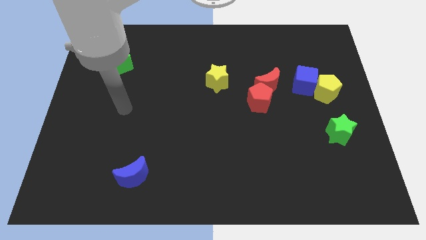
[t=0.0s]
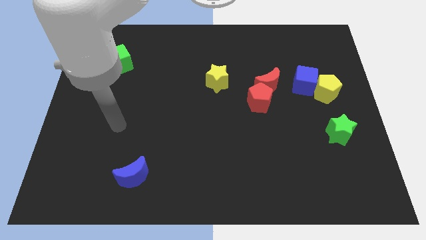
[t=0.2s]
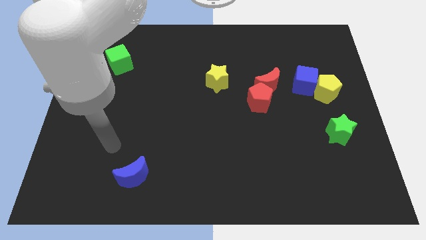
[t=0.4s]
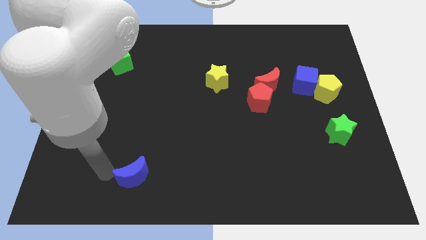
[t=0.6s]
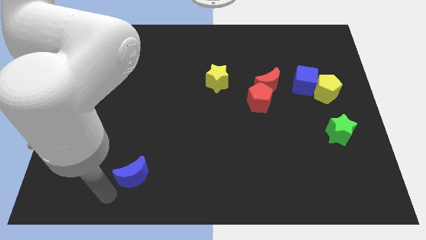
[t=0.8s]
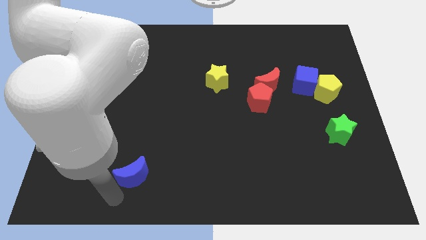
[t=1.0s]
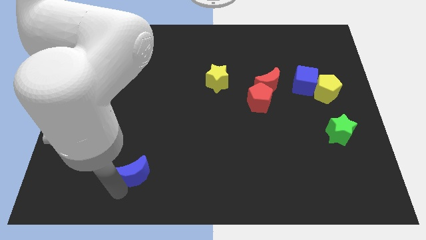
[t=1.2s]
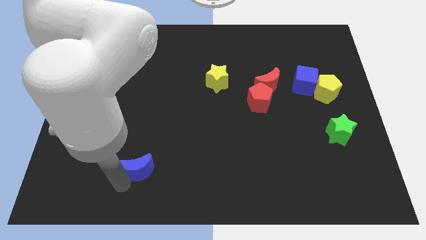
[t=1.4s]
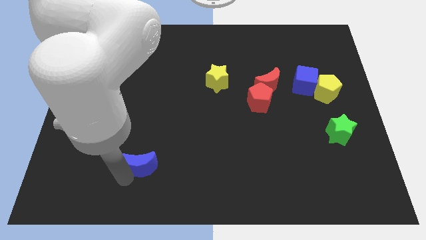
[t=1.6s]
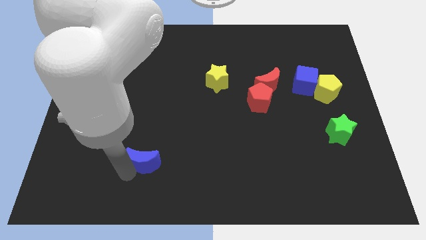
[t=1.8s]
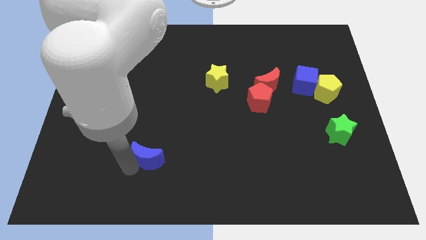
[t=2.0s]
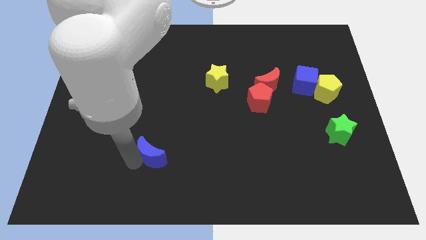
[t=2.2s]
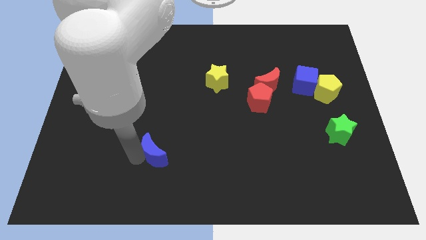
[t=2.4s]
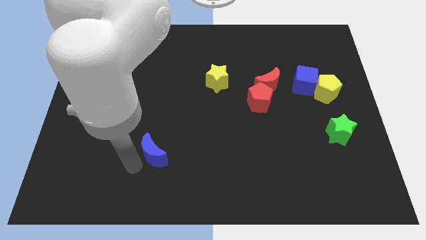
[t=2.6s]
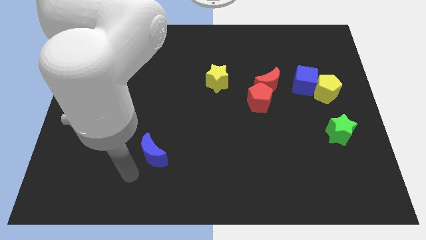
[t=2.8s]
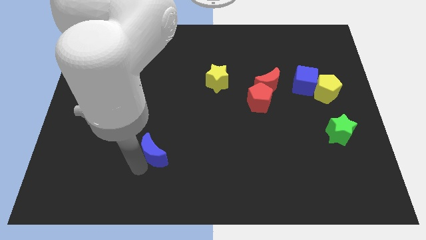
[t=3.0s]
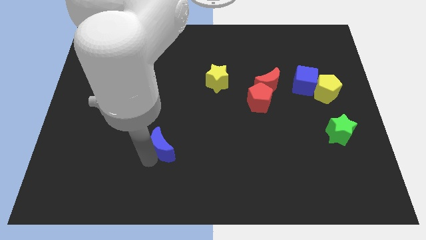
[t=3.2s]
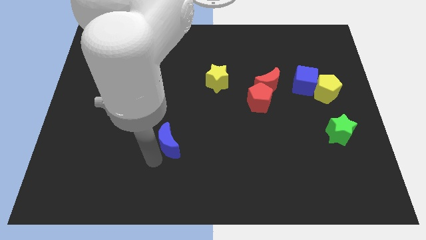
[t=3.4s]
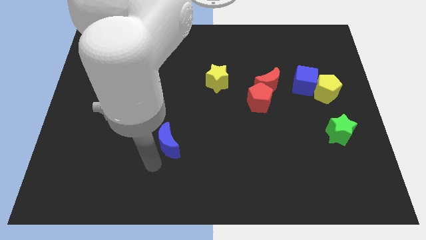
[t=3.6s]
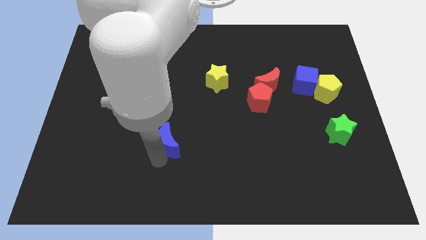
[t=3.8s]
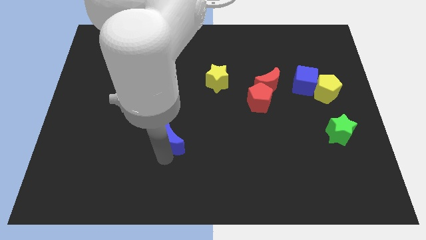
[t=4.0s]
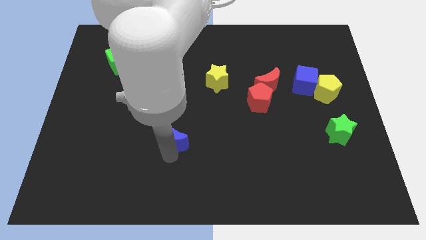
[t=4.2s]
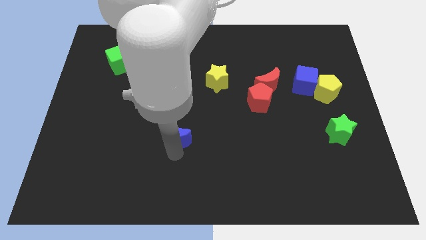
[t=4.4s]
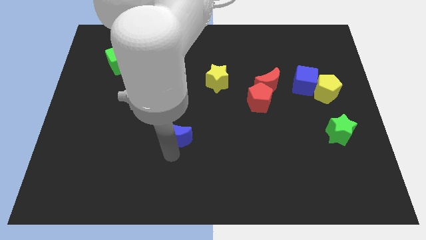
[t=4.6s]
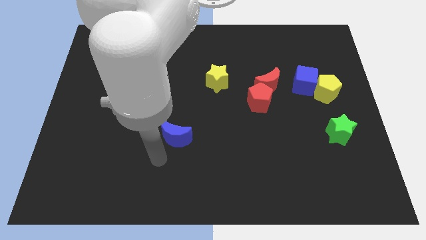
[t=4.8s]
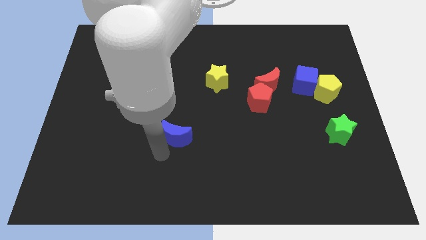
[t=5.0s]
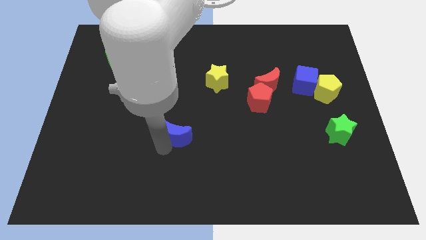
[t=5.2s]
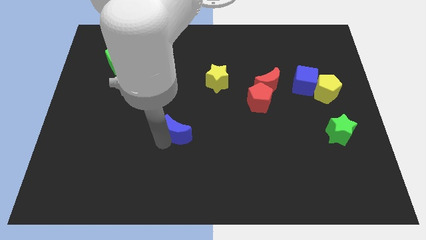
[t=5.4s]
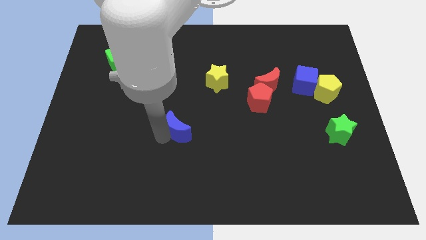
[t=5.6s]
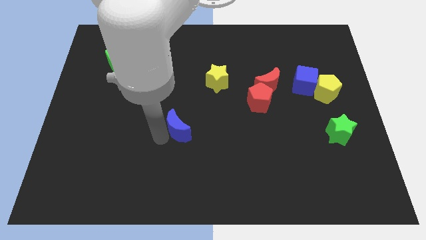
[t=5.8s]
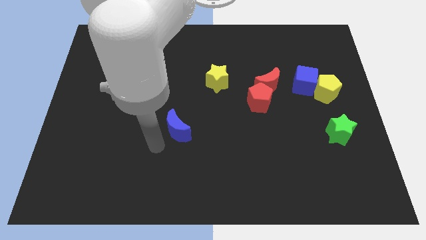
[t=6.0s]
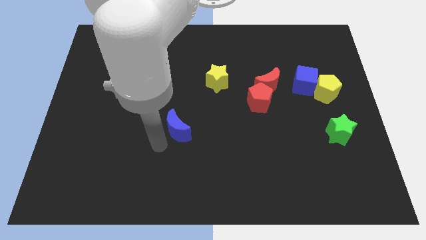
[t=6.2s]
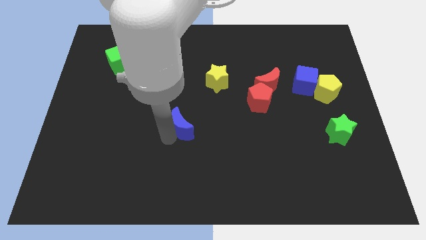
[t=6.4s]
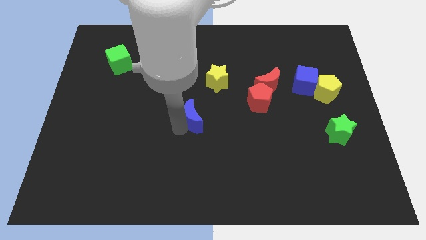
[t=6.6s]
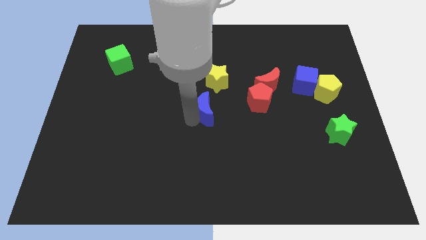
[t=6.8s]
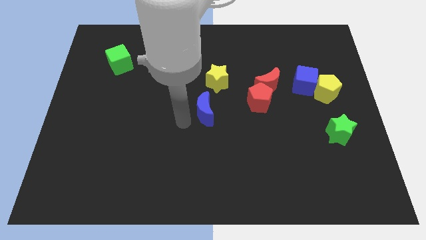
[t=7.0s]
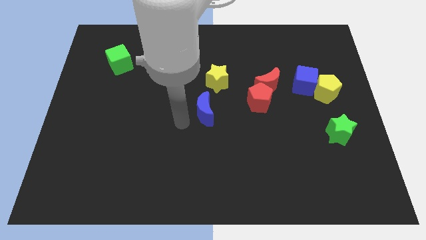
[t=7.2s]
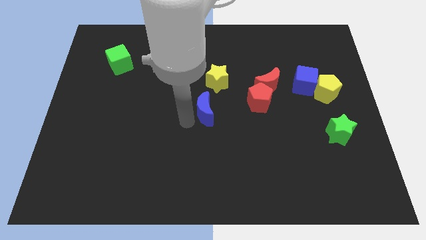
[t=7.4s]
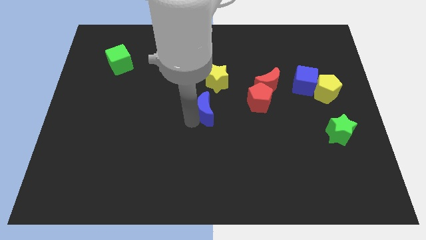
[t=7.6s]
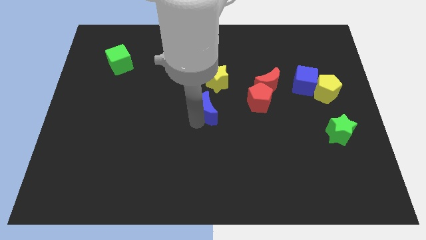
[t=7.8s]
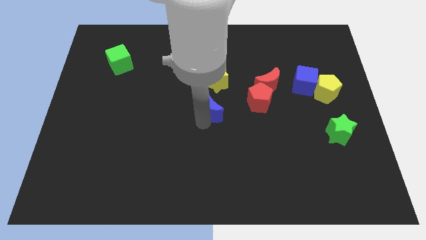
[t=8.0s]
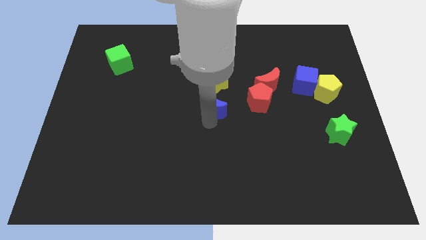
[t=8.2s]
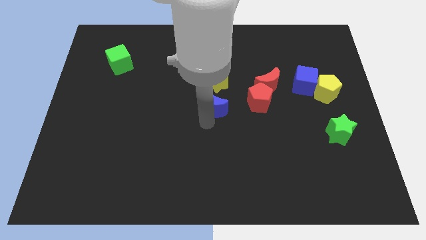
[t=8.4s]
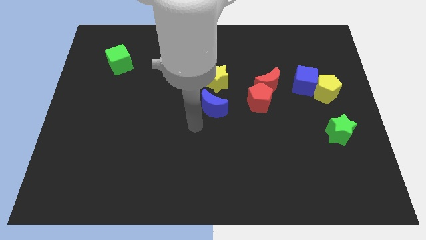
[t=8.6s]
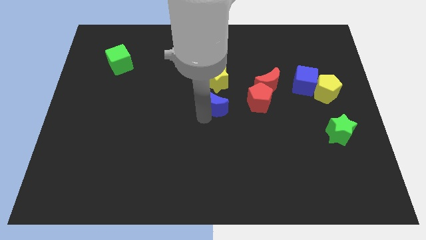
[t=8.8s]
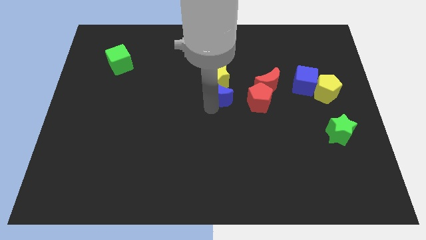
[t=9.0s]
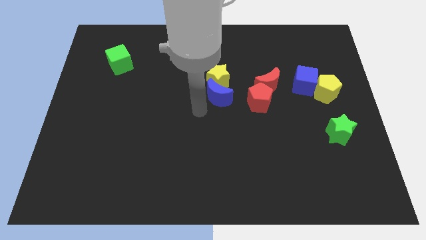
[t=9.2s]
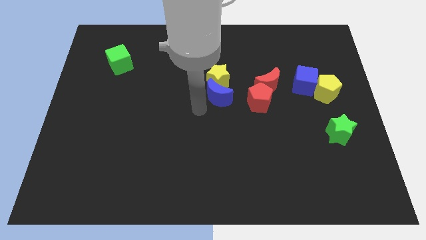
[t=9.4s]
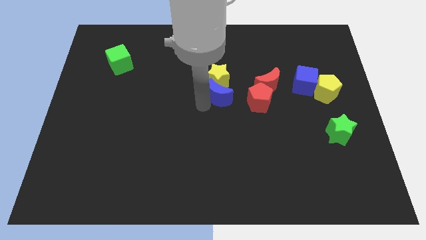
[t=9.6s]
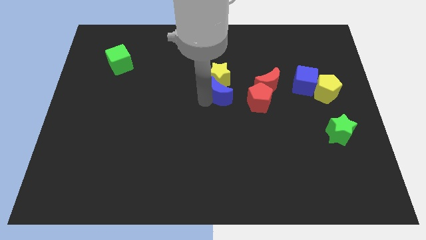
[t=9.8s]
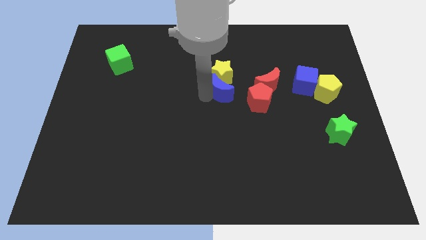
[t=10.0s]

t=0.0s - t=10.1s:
slide the blue moon to the top left side of the red pentagon

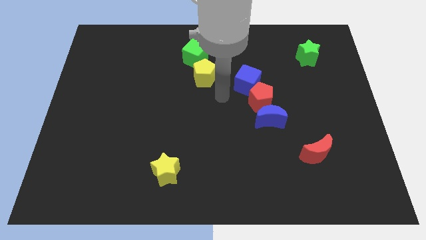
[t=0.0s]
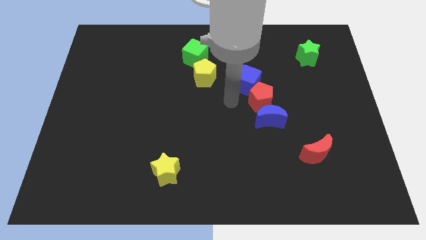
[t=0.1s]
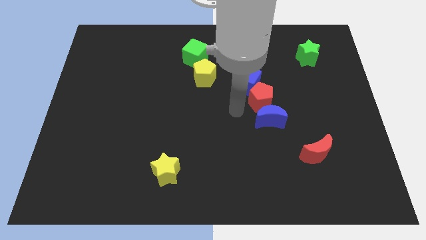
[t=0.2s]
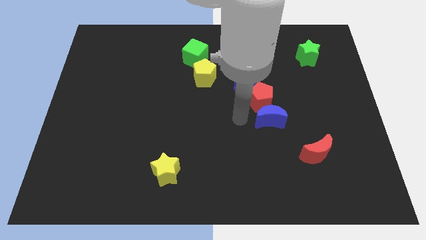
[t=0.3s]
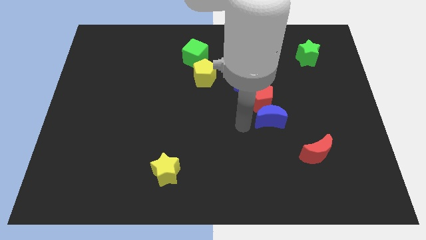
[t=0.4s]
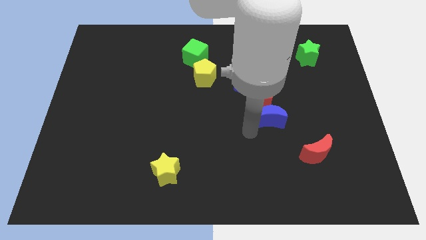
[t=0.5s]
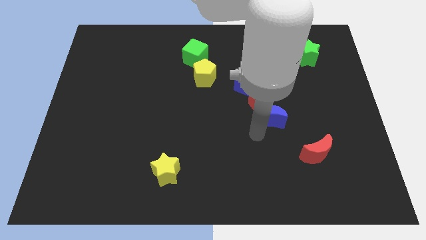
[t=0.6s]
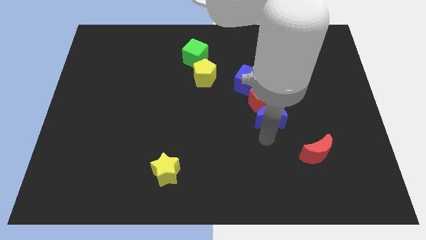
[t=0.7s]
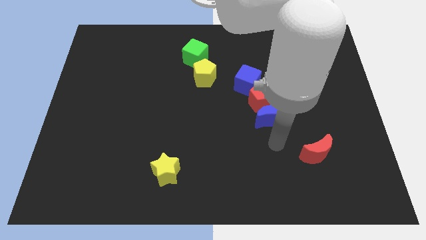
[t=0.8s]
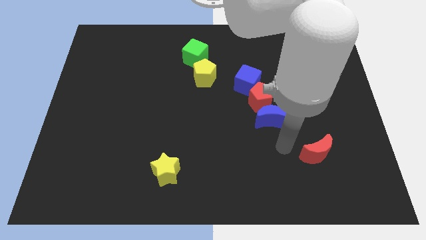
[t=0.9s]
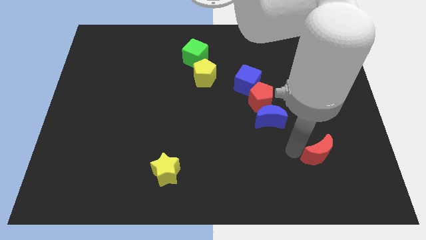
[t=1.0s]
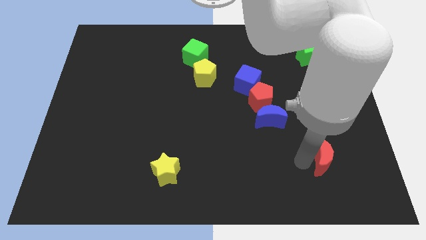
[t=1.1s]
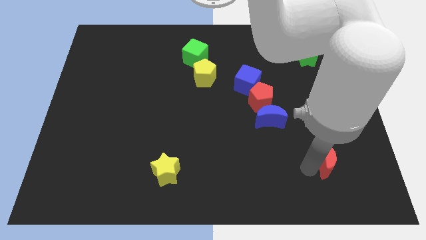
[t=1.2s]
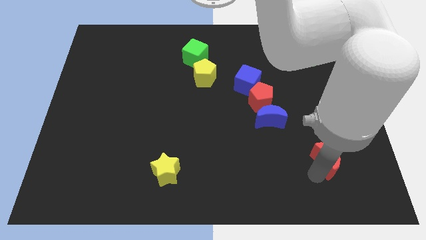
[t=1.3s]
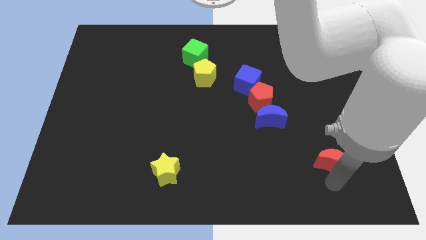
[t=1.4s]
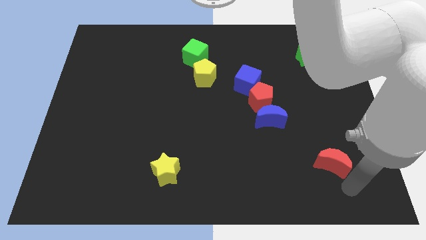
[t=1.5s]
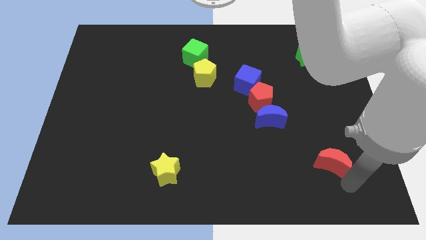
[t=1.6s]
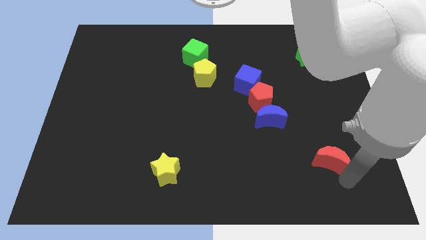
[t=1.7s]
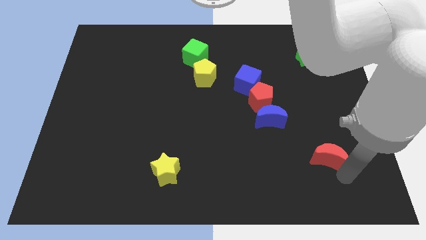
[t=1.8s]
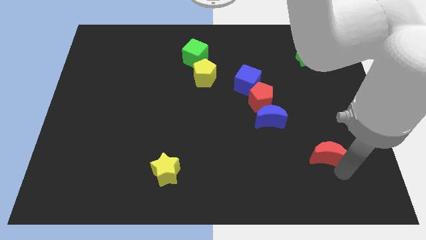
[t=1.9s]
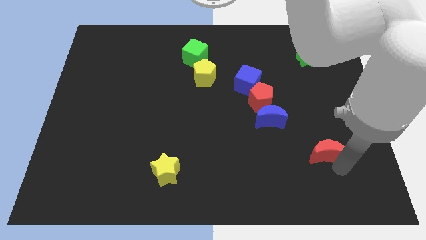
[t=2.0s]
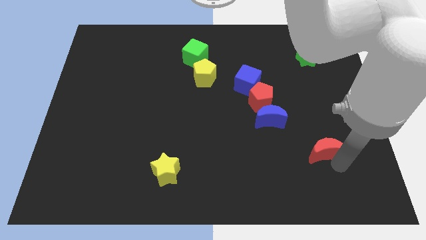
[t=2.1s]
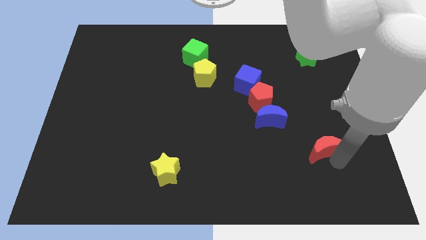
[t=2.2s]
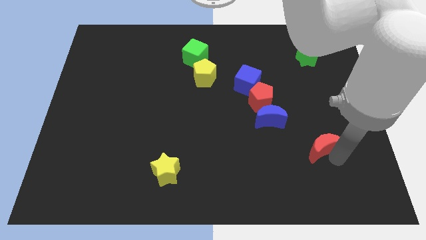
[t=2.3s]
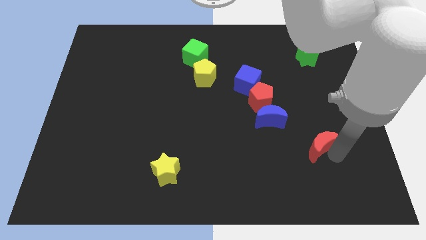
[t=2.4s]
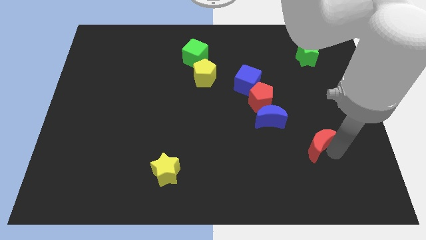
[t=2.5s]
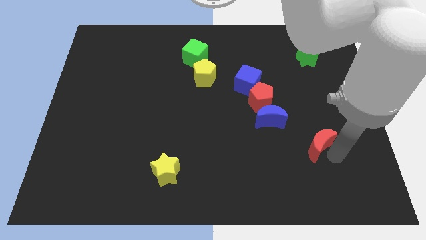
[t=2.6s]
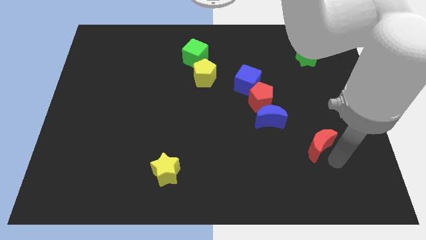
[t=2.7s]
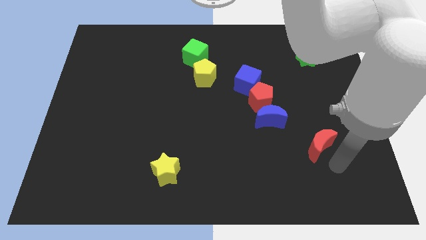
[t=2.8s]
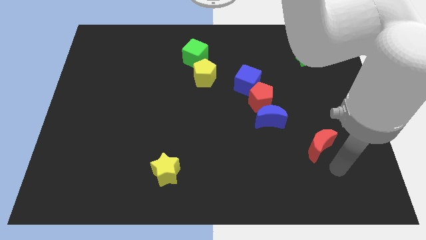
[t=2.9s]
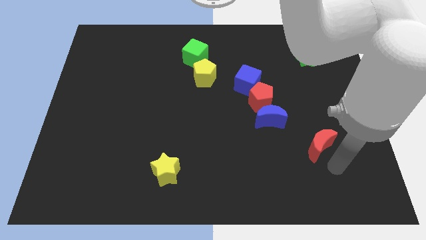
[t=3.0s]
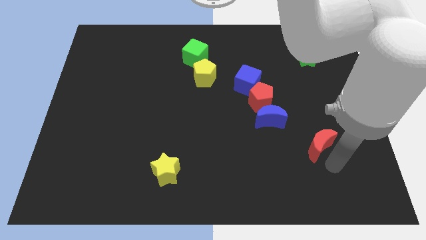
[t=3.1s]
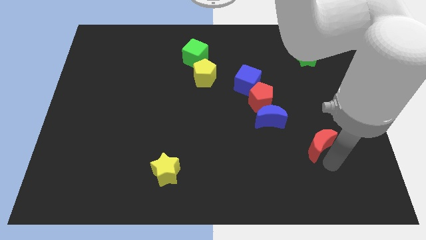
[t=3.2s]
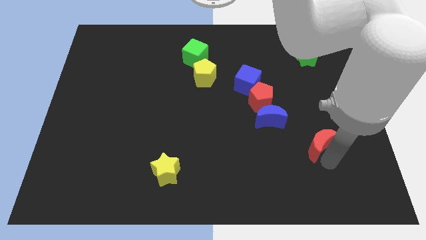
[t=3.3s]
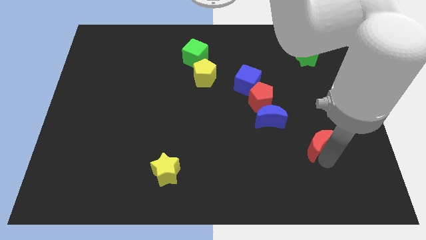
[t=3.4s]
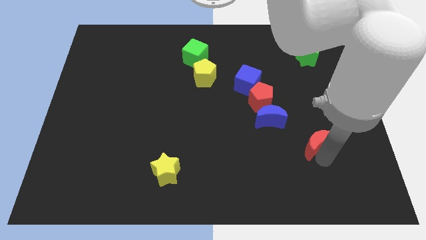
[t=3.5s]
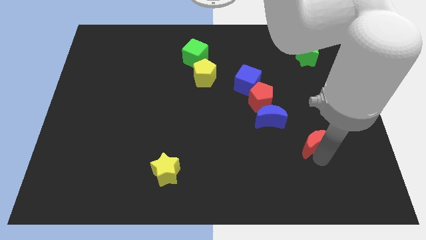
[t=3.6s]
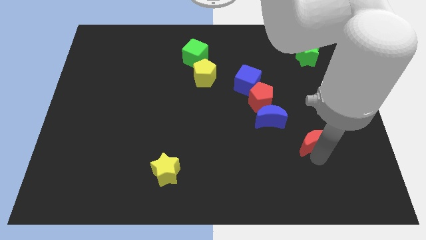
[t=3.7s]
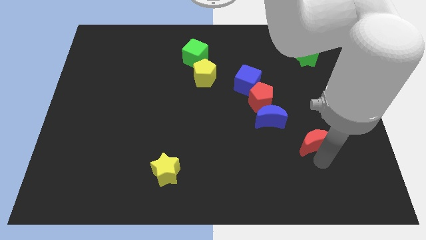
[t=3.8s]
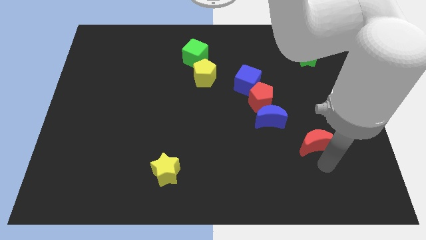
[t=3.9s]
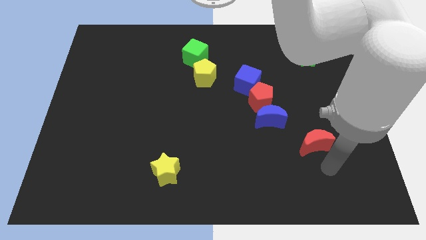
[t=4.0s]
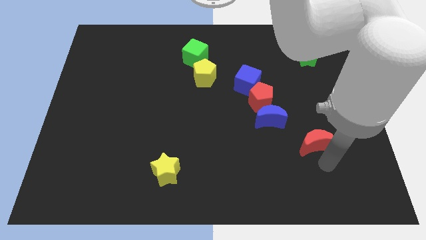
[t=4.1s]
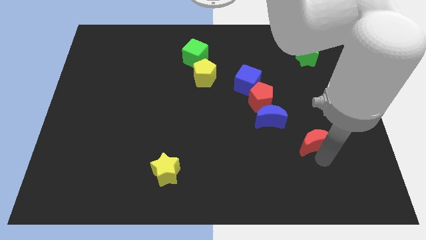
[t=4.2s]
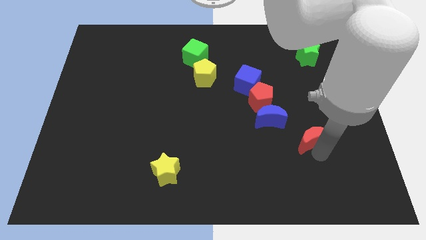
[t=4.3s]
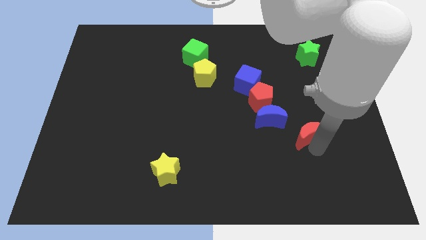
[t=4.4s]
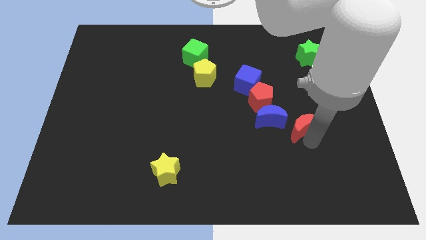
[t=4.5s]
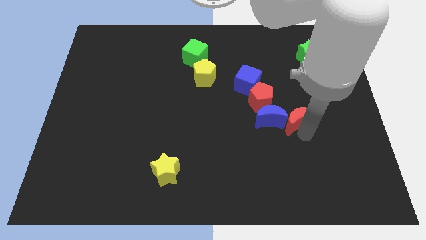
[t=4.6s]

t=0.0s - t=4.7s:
slide the red moon to the top right side of the blue moon
